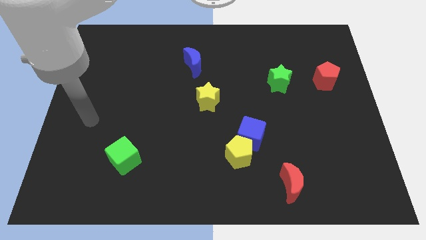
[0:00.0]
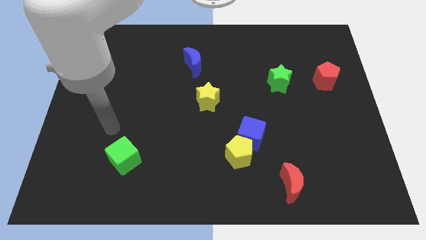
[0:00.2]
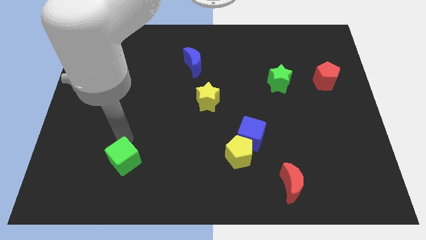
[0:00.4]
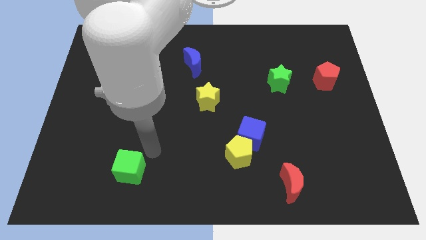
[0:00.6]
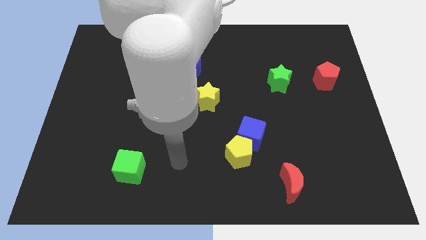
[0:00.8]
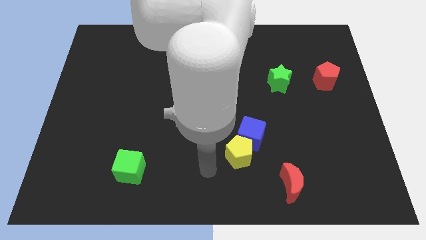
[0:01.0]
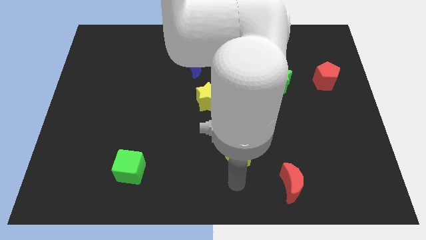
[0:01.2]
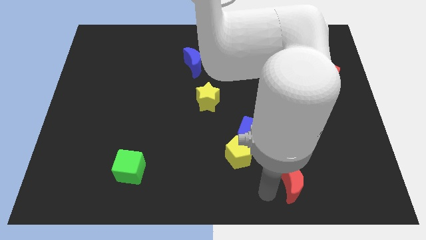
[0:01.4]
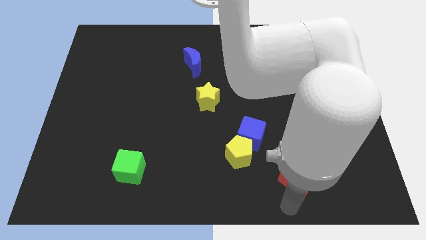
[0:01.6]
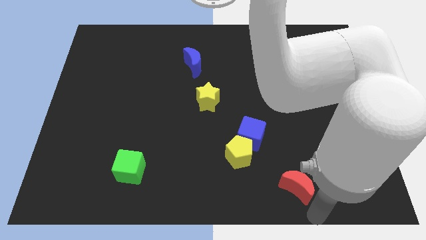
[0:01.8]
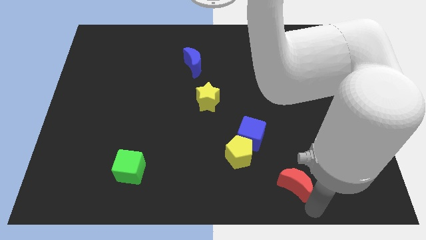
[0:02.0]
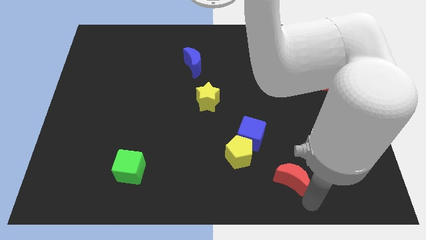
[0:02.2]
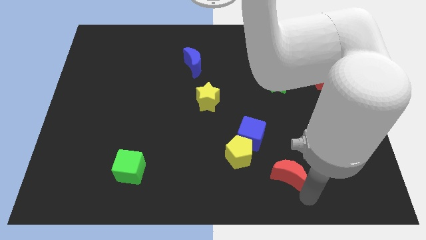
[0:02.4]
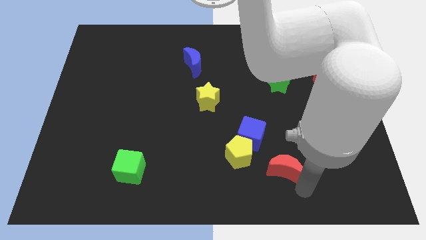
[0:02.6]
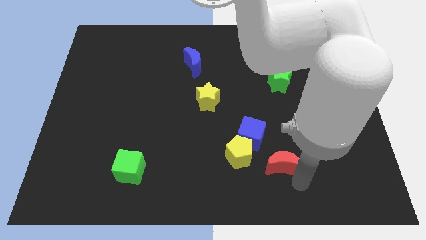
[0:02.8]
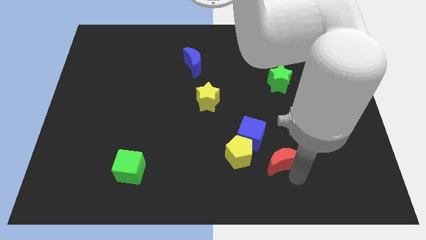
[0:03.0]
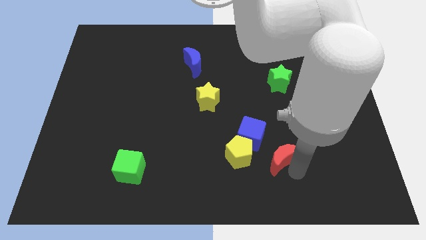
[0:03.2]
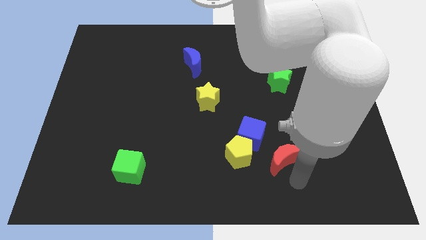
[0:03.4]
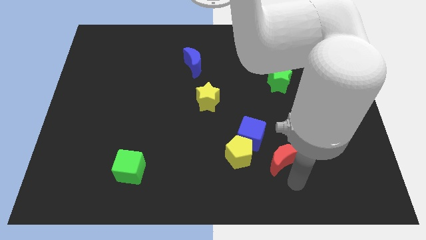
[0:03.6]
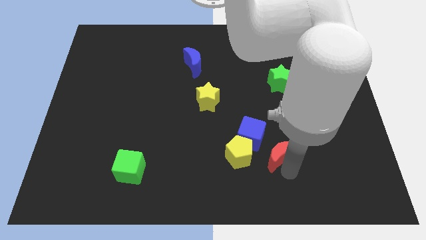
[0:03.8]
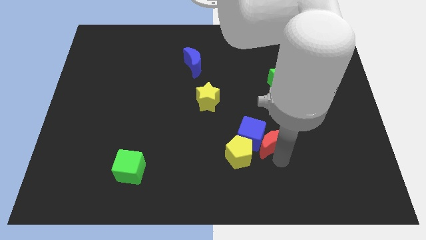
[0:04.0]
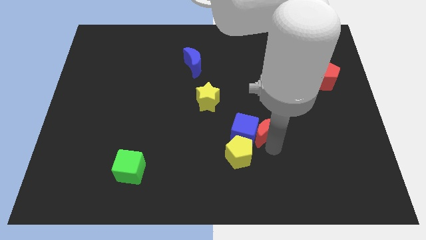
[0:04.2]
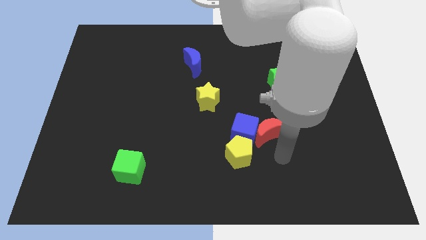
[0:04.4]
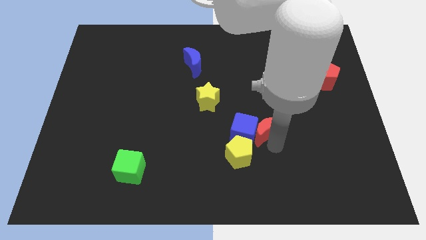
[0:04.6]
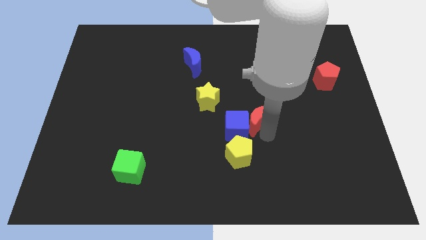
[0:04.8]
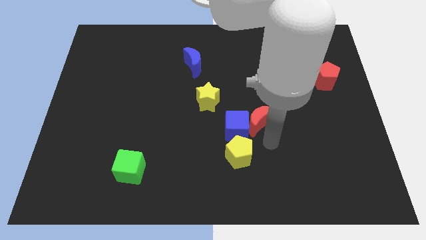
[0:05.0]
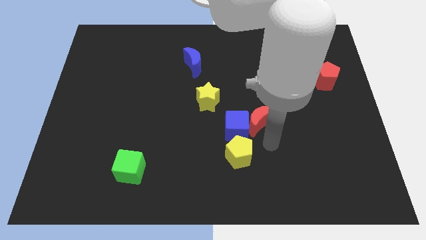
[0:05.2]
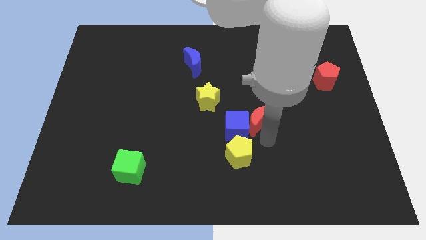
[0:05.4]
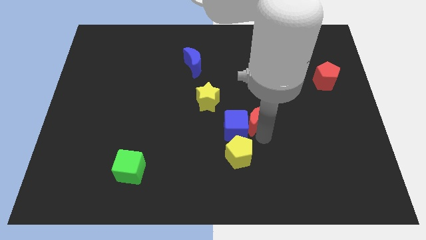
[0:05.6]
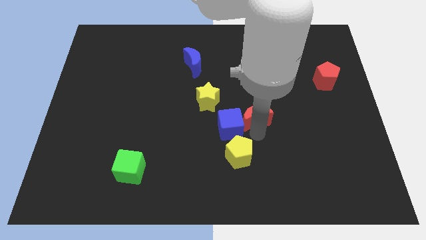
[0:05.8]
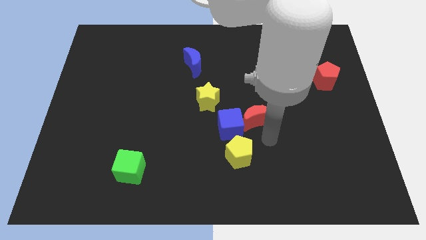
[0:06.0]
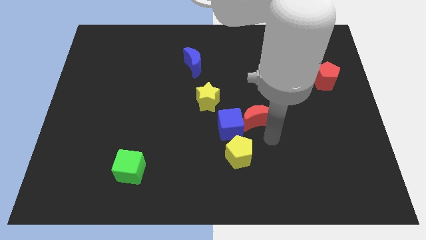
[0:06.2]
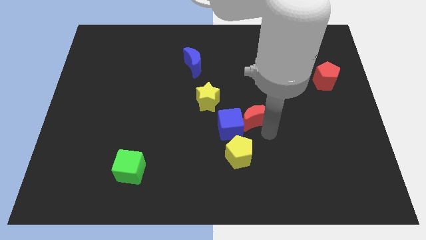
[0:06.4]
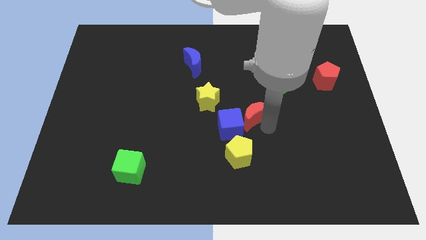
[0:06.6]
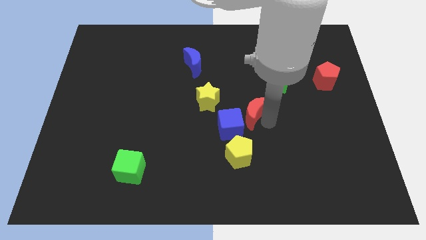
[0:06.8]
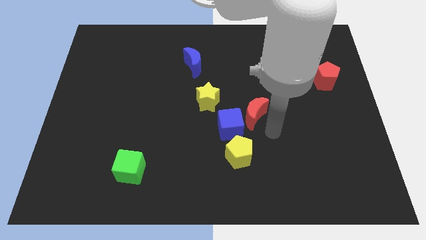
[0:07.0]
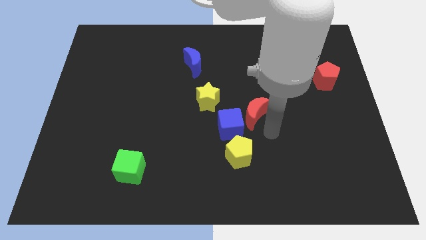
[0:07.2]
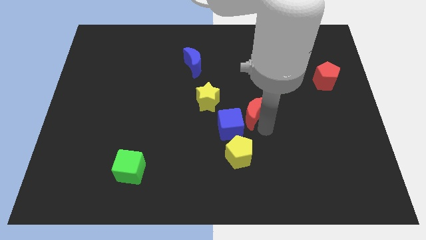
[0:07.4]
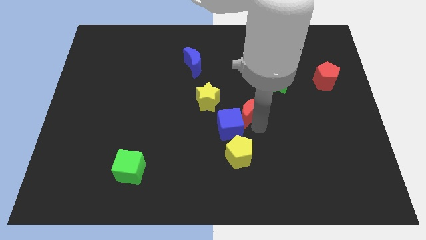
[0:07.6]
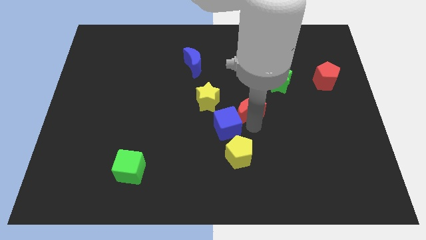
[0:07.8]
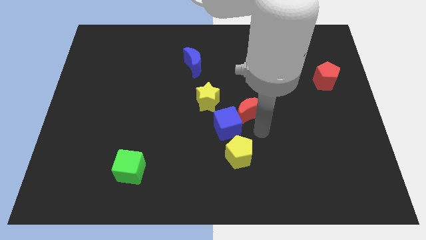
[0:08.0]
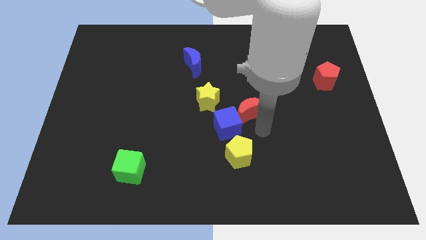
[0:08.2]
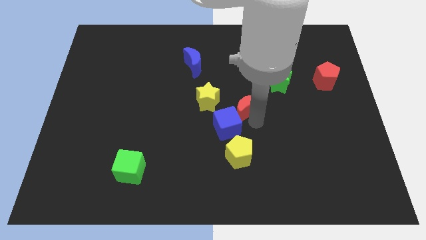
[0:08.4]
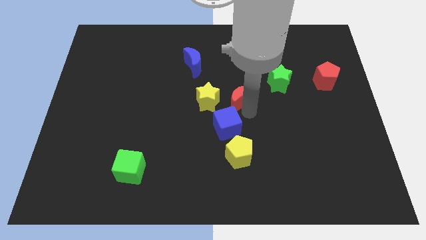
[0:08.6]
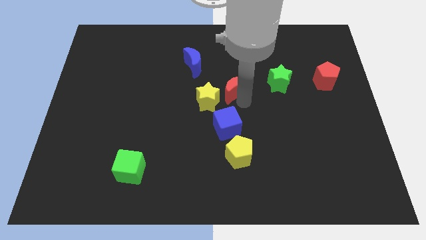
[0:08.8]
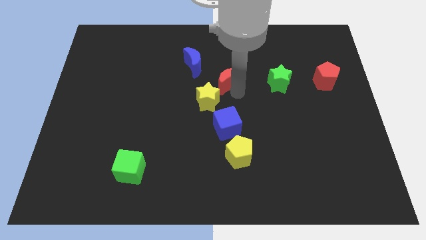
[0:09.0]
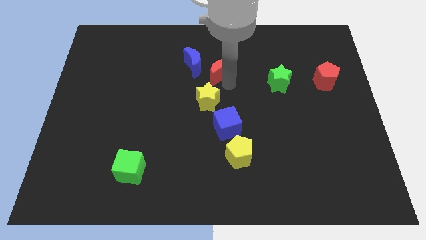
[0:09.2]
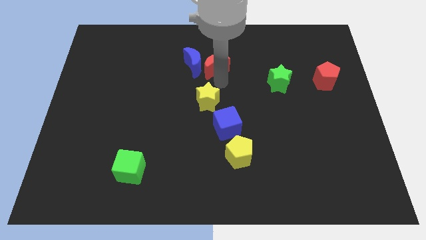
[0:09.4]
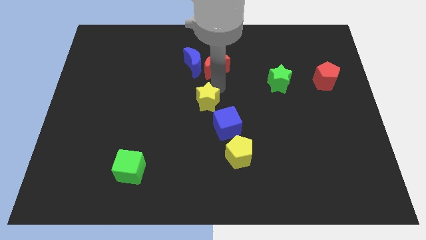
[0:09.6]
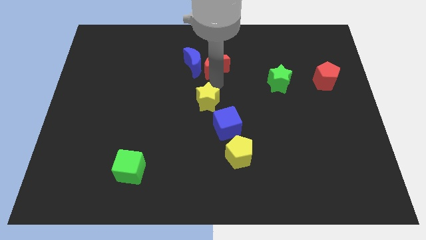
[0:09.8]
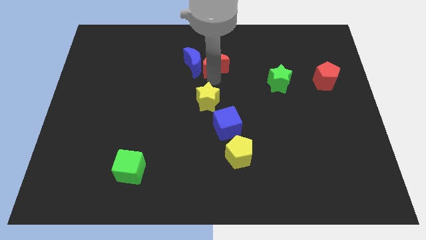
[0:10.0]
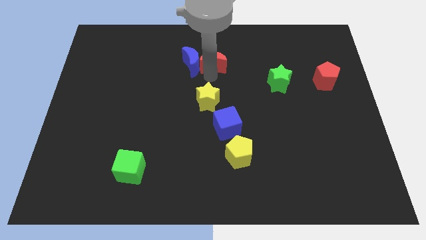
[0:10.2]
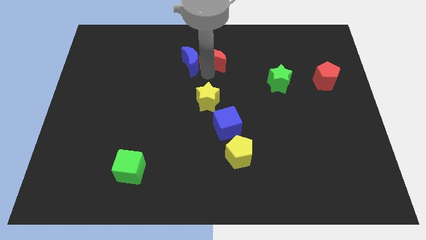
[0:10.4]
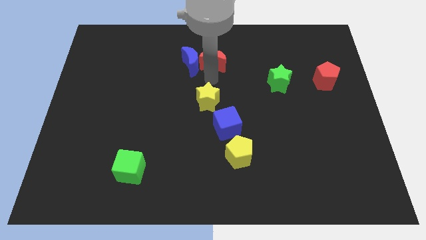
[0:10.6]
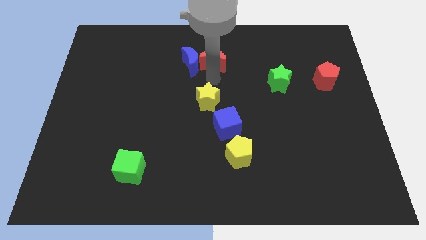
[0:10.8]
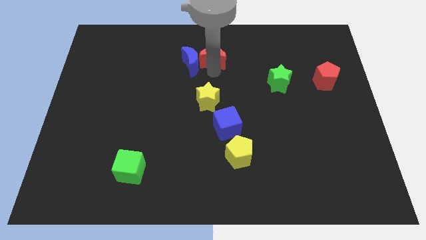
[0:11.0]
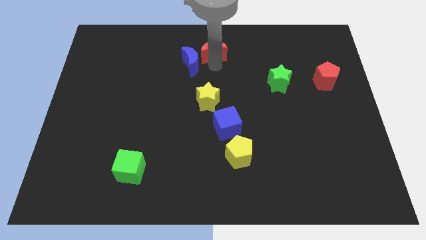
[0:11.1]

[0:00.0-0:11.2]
slide the red moon to the top

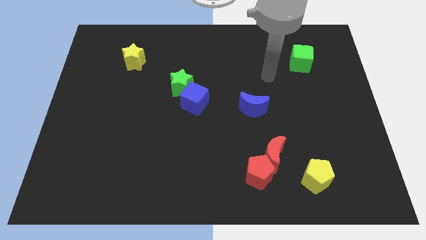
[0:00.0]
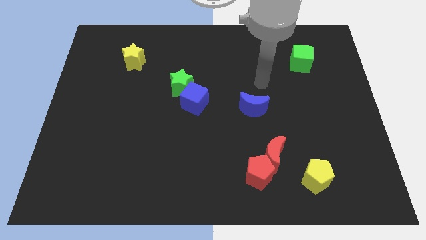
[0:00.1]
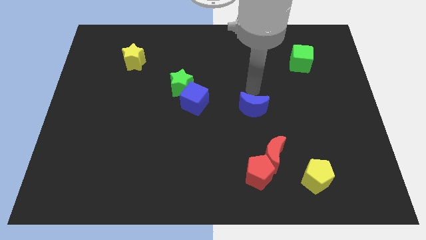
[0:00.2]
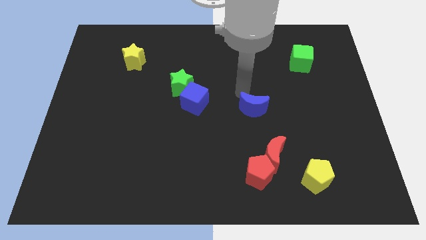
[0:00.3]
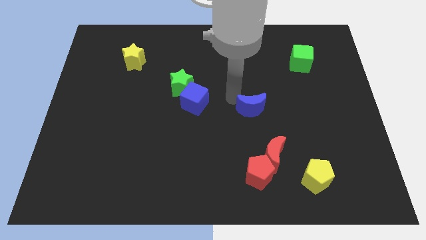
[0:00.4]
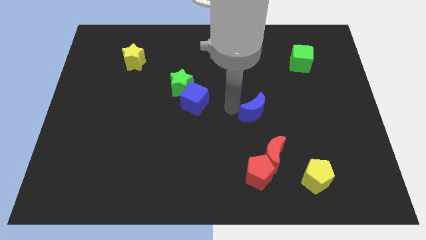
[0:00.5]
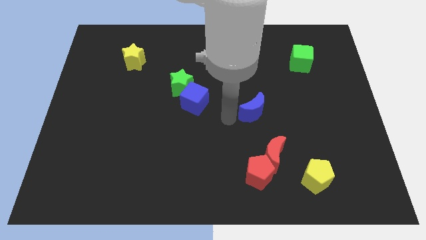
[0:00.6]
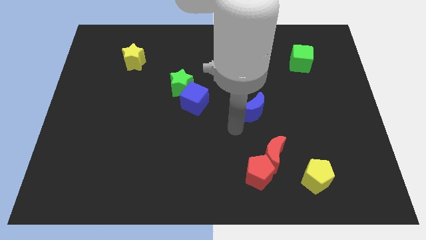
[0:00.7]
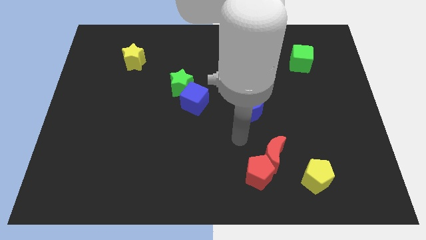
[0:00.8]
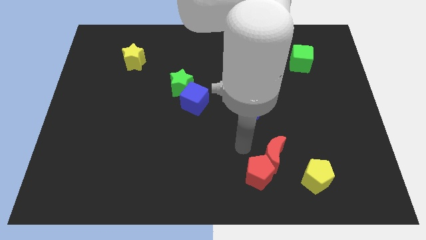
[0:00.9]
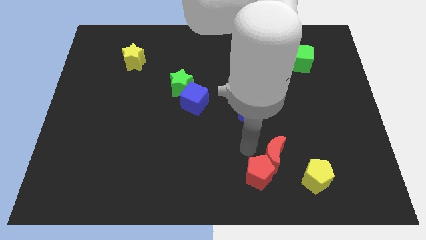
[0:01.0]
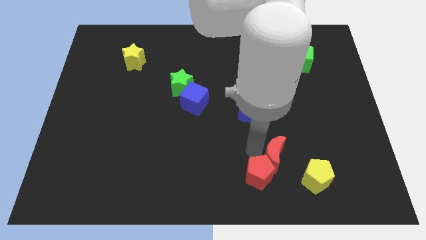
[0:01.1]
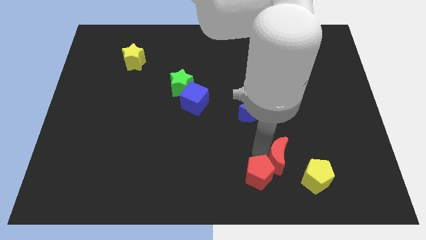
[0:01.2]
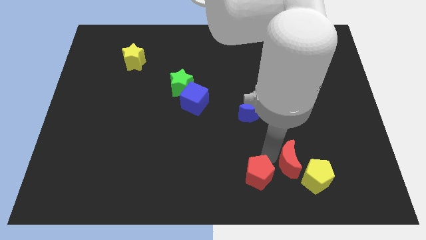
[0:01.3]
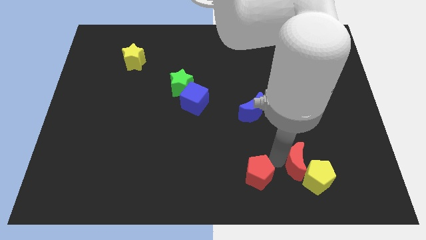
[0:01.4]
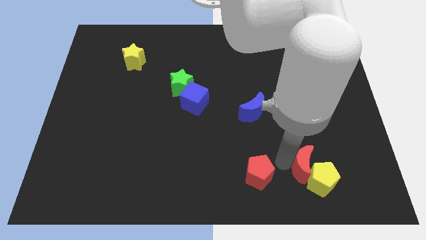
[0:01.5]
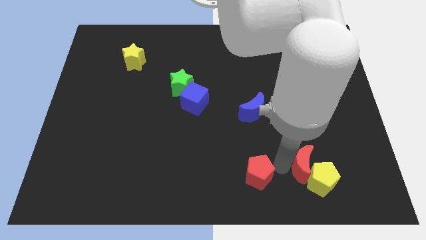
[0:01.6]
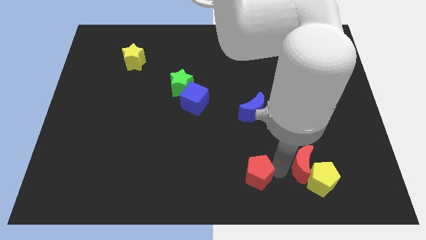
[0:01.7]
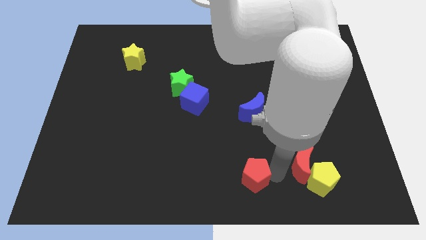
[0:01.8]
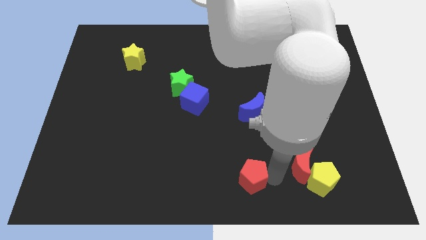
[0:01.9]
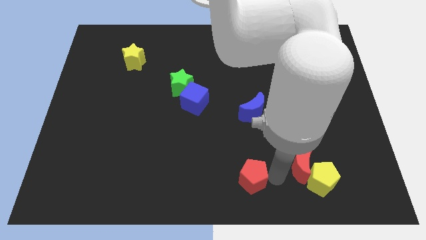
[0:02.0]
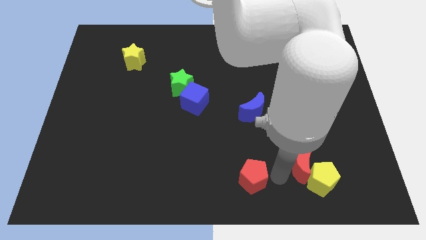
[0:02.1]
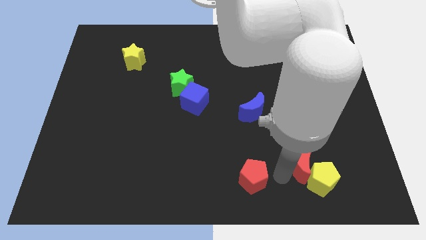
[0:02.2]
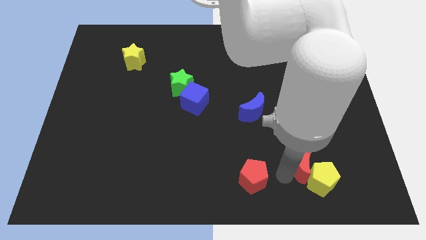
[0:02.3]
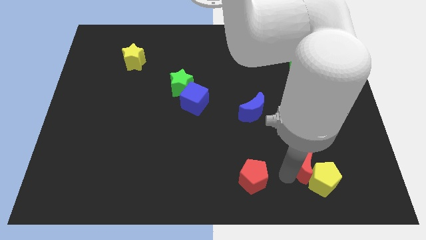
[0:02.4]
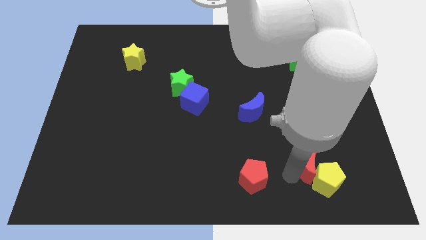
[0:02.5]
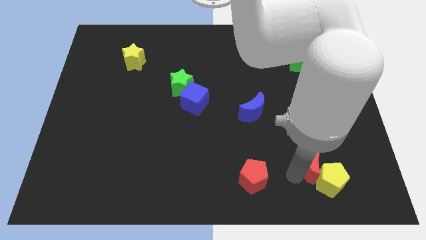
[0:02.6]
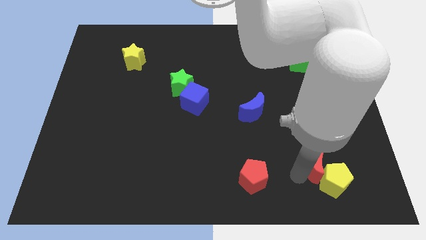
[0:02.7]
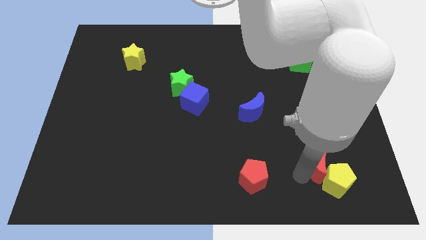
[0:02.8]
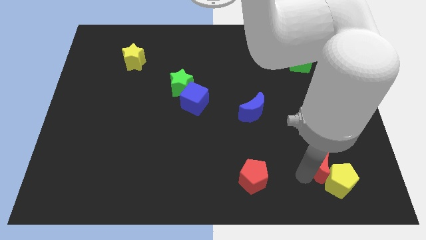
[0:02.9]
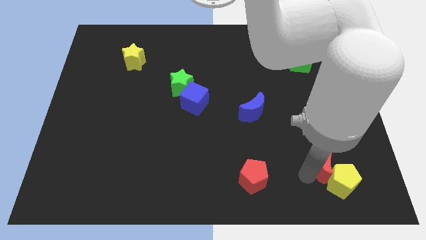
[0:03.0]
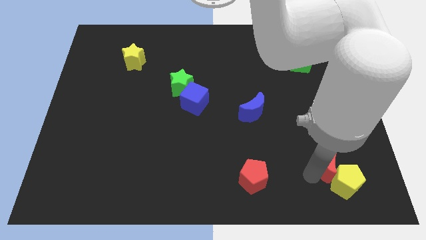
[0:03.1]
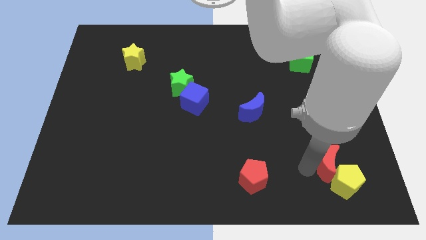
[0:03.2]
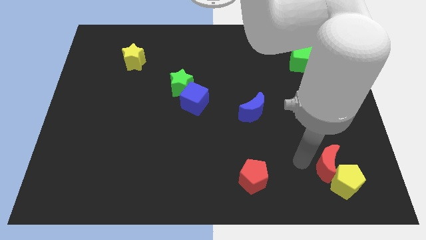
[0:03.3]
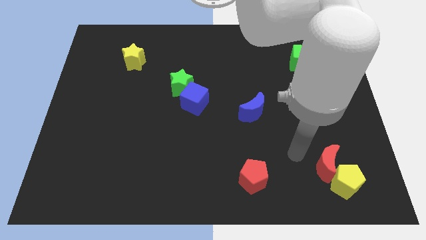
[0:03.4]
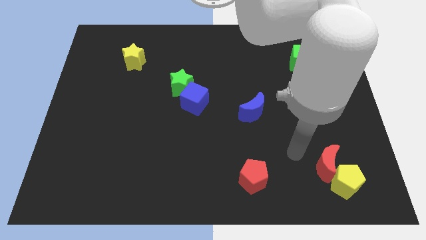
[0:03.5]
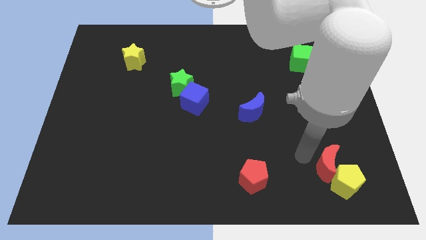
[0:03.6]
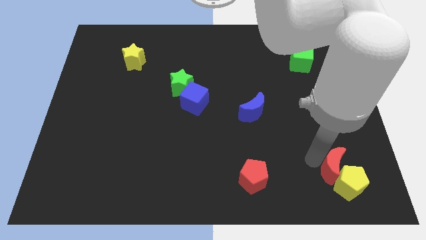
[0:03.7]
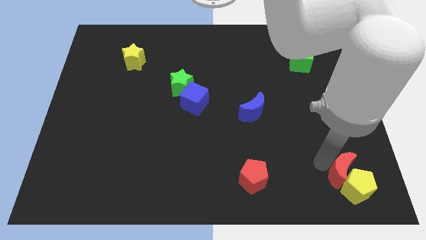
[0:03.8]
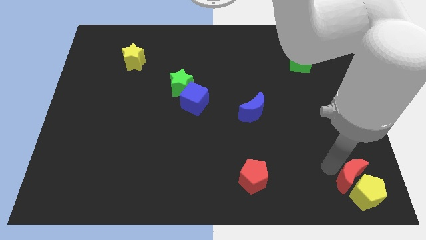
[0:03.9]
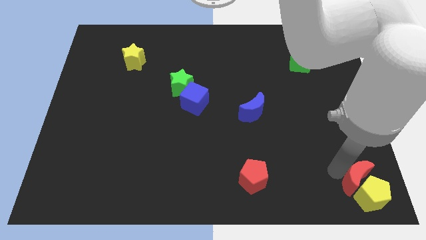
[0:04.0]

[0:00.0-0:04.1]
slide the red moon to the lower right corner
